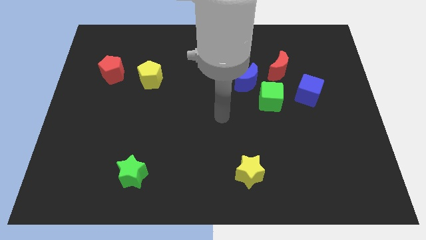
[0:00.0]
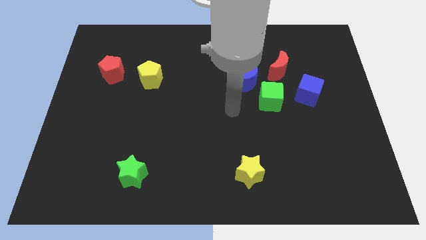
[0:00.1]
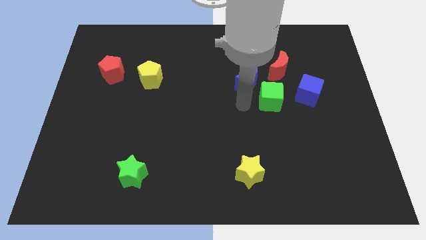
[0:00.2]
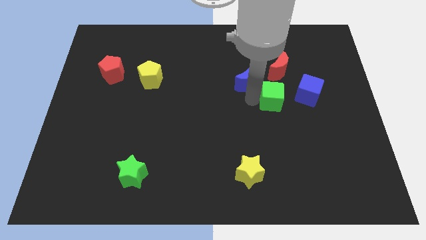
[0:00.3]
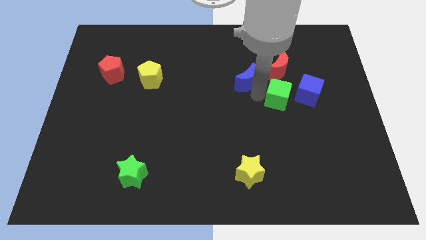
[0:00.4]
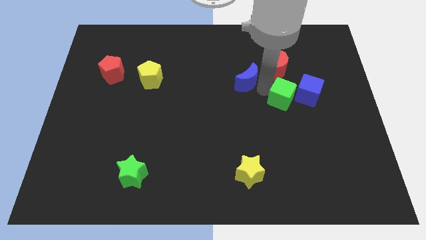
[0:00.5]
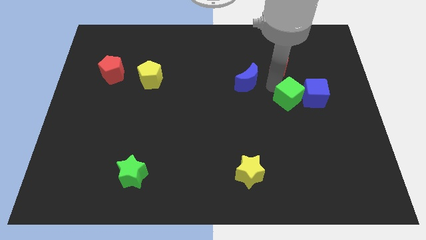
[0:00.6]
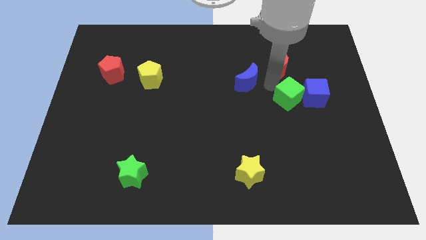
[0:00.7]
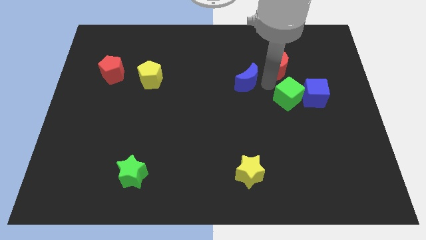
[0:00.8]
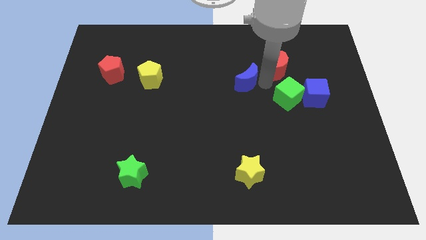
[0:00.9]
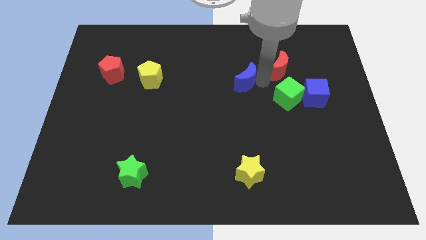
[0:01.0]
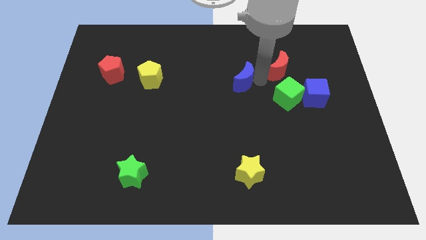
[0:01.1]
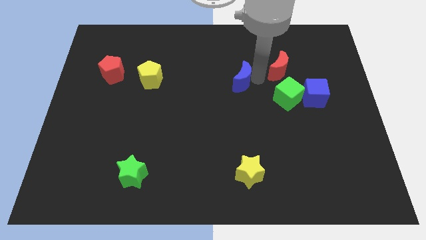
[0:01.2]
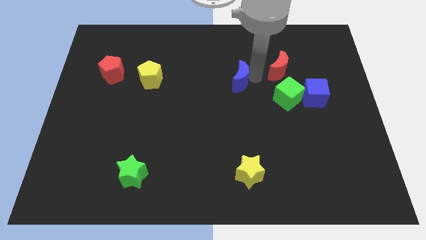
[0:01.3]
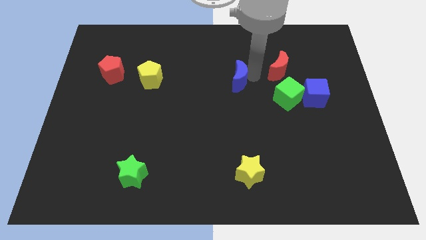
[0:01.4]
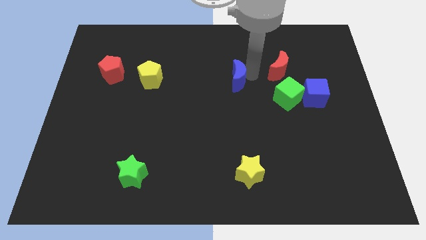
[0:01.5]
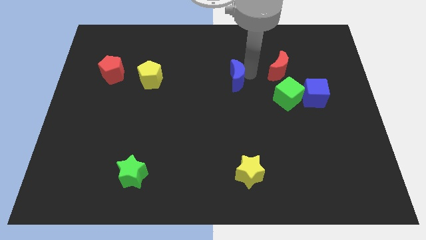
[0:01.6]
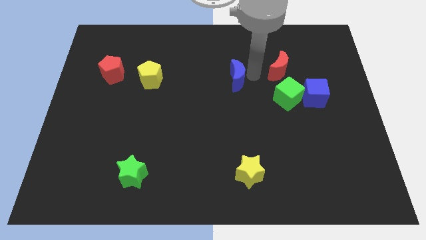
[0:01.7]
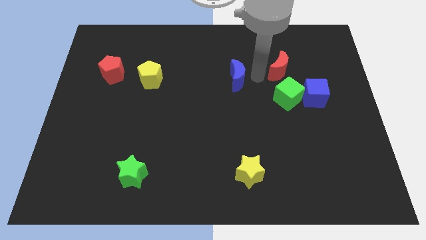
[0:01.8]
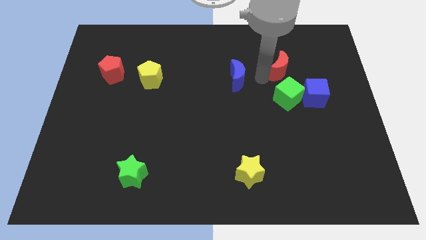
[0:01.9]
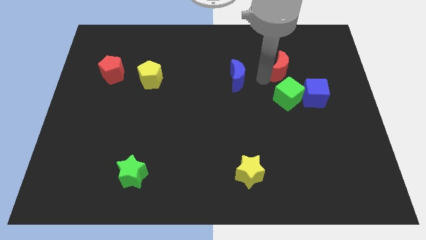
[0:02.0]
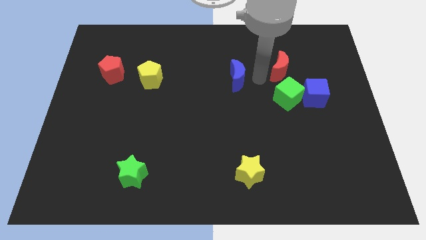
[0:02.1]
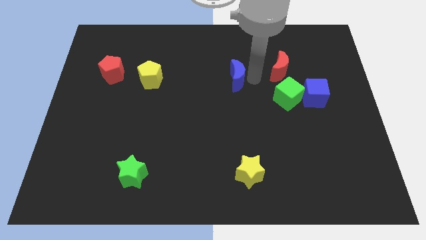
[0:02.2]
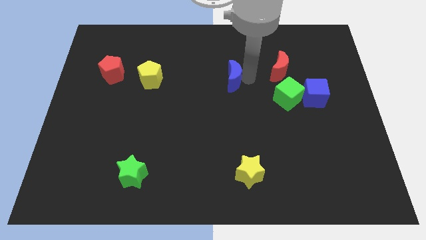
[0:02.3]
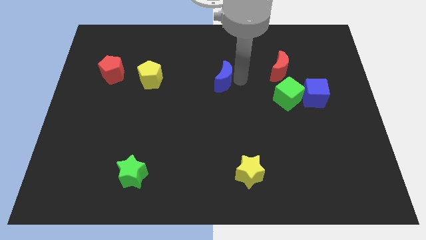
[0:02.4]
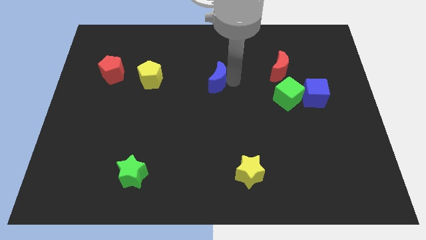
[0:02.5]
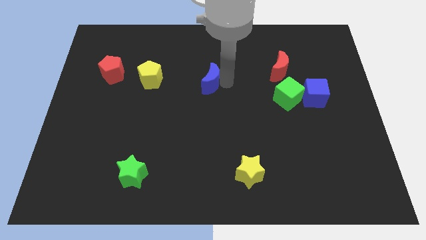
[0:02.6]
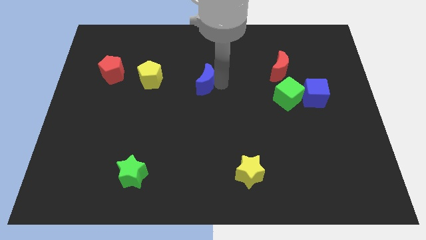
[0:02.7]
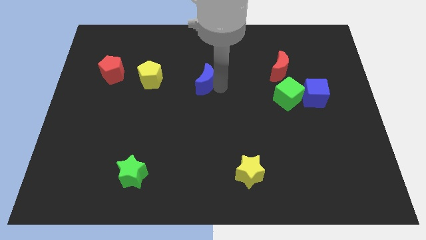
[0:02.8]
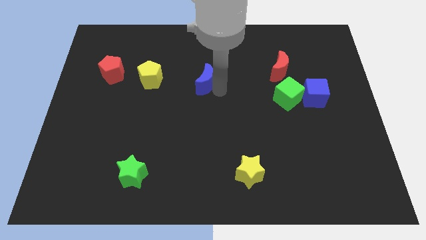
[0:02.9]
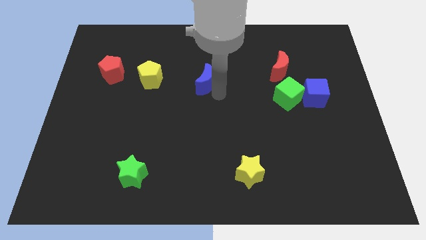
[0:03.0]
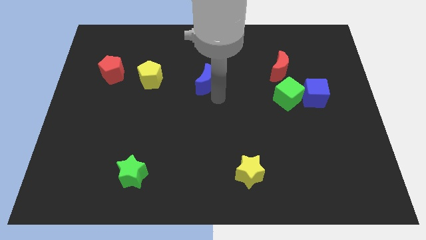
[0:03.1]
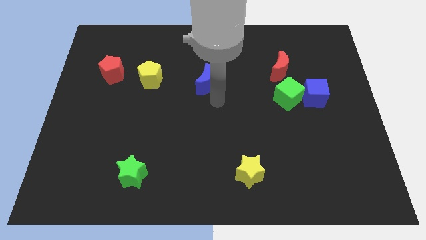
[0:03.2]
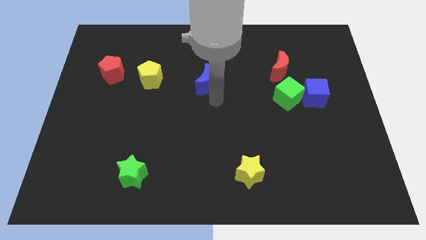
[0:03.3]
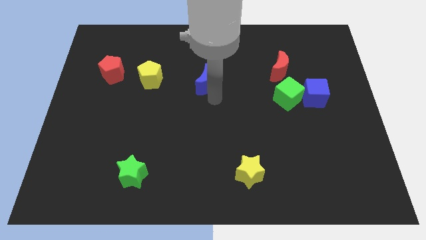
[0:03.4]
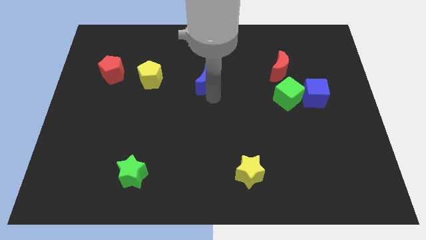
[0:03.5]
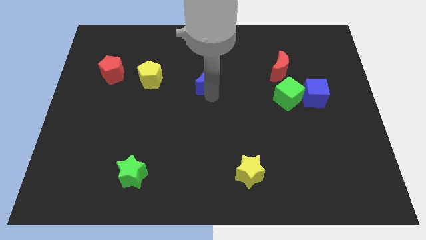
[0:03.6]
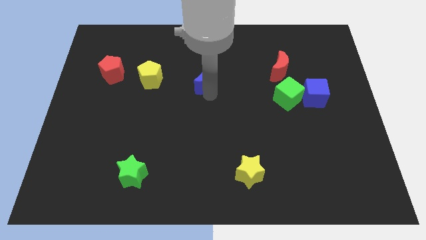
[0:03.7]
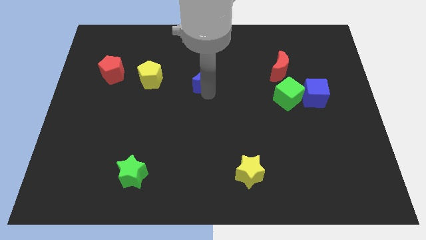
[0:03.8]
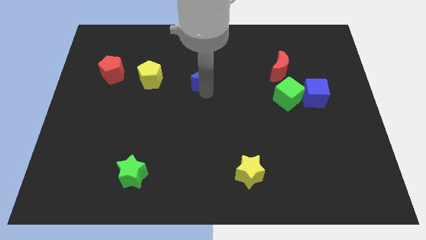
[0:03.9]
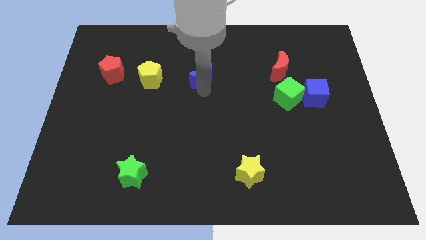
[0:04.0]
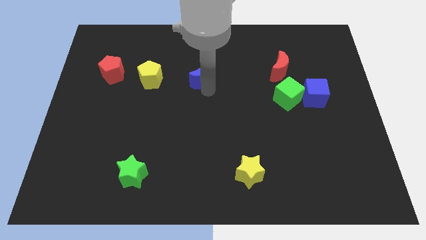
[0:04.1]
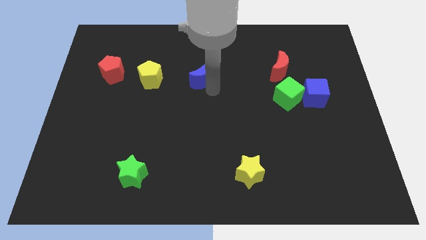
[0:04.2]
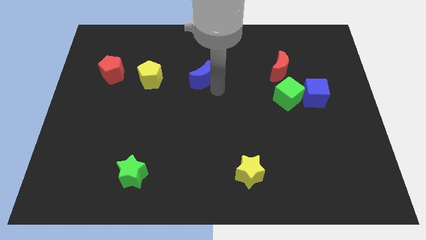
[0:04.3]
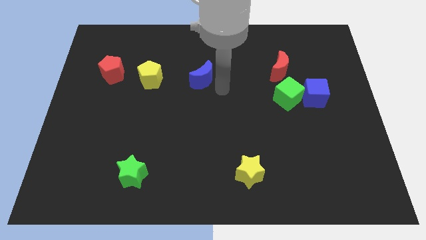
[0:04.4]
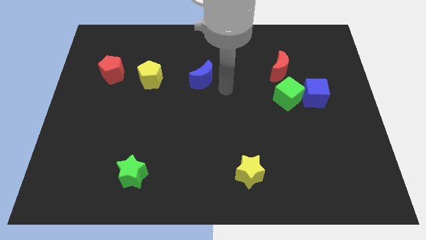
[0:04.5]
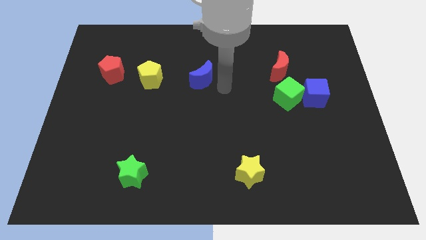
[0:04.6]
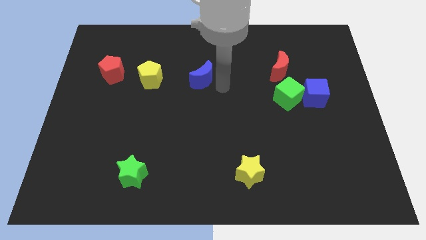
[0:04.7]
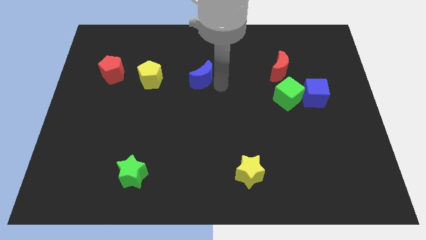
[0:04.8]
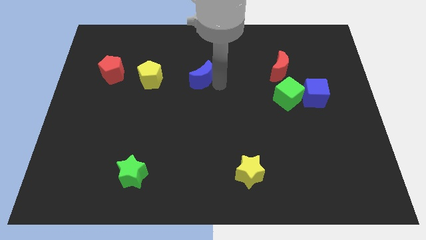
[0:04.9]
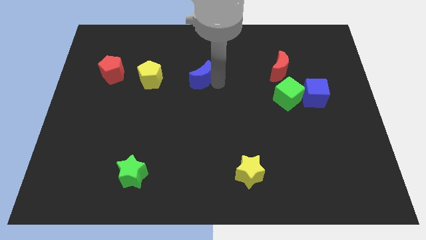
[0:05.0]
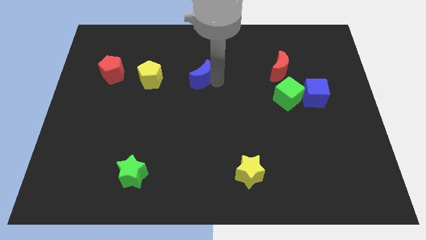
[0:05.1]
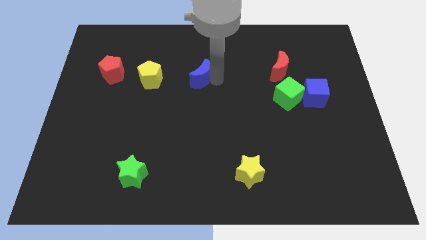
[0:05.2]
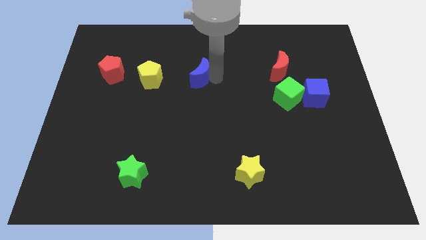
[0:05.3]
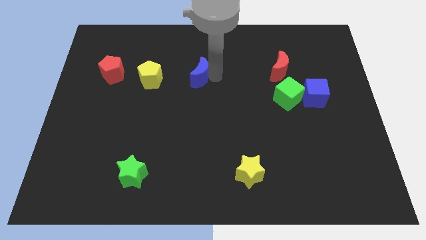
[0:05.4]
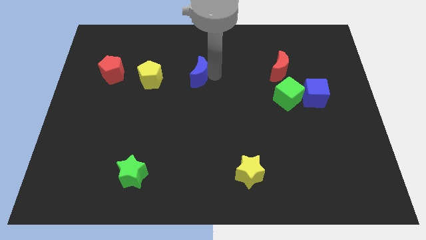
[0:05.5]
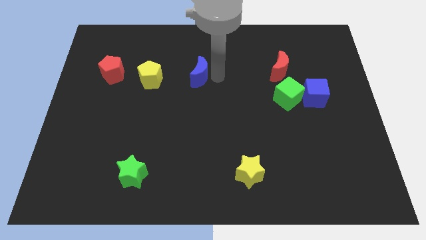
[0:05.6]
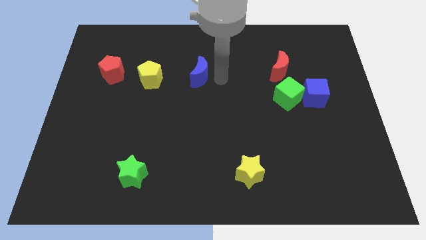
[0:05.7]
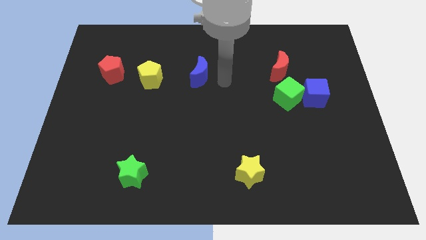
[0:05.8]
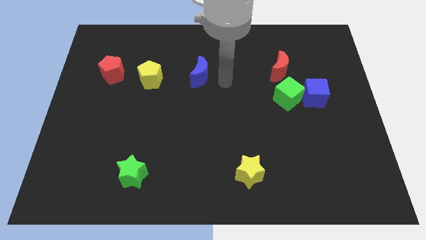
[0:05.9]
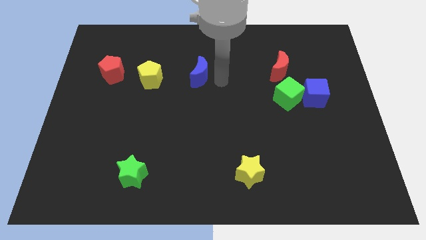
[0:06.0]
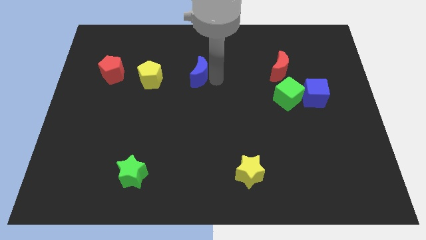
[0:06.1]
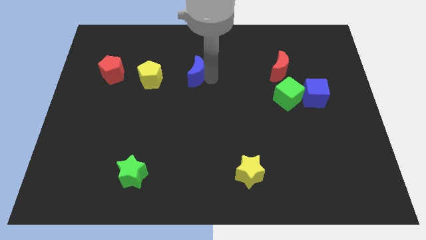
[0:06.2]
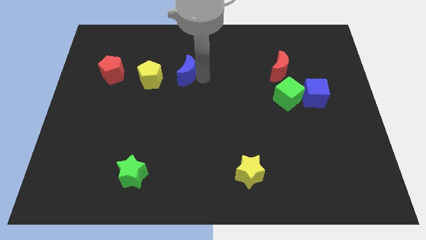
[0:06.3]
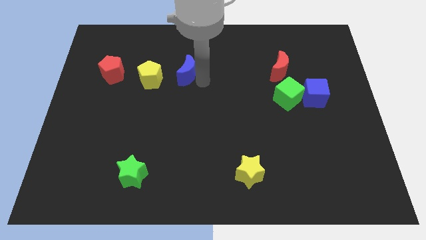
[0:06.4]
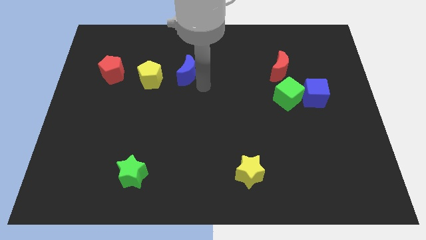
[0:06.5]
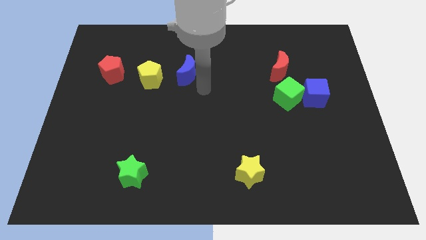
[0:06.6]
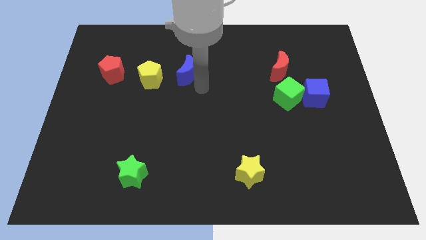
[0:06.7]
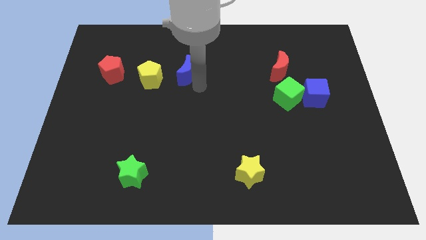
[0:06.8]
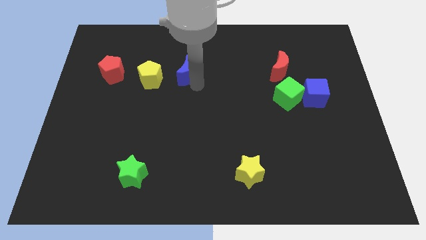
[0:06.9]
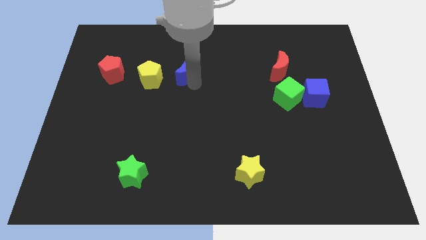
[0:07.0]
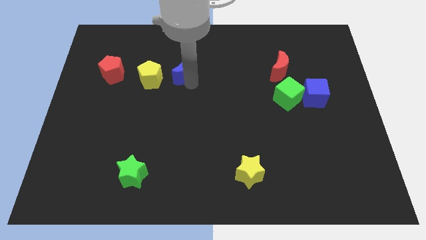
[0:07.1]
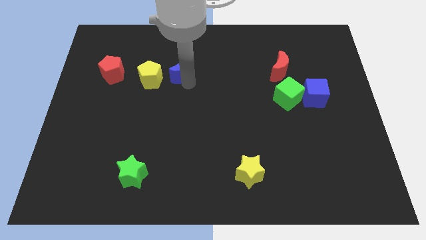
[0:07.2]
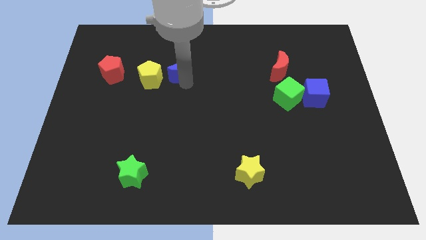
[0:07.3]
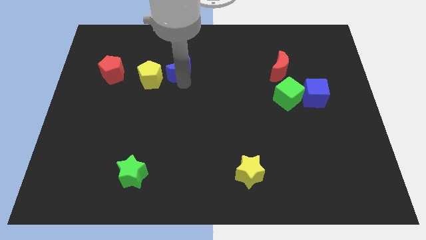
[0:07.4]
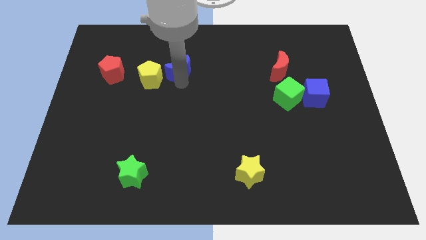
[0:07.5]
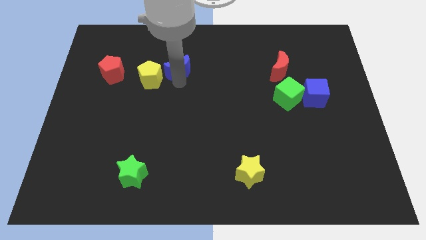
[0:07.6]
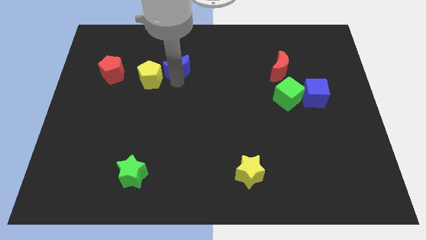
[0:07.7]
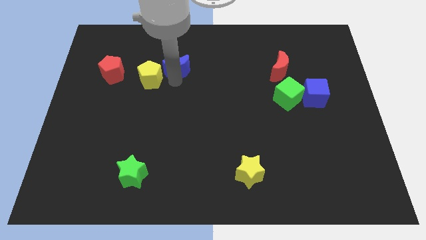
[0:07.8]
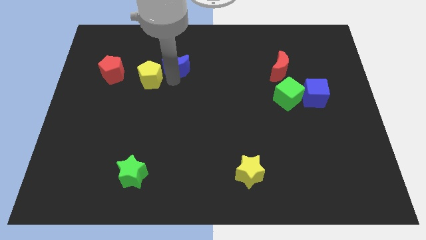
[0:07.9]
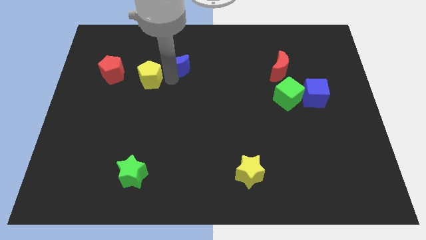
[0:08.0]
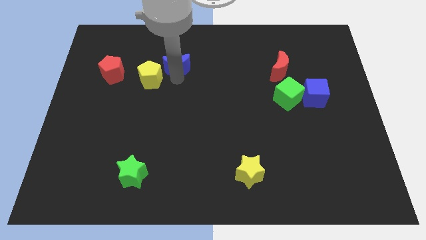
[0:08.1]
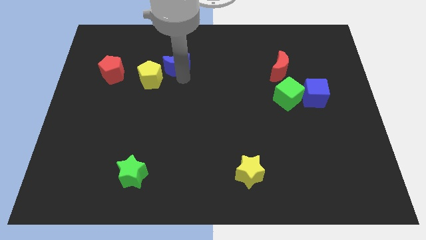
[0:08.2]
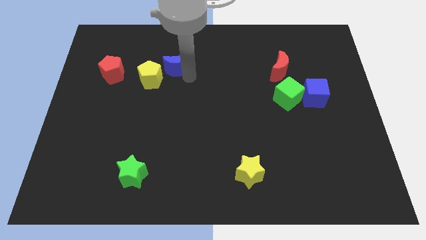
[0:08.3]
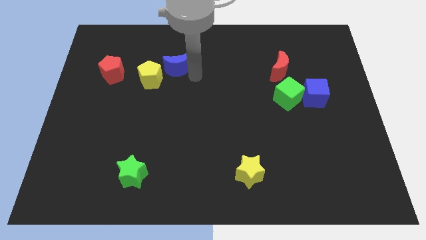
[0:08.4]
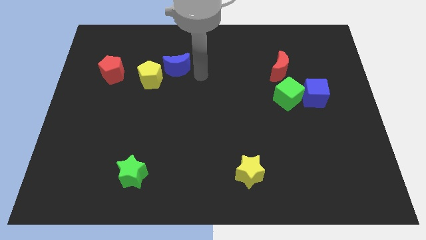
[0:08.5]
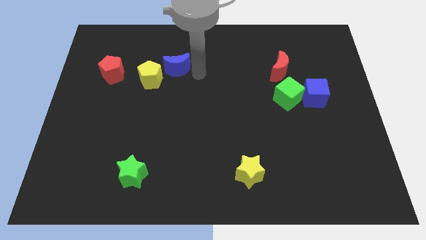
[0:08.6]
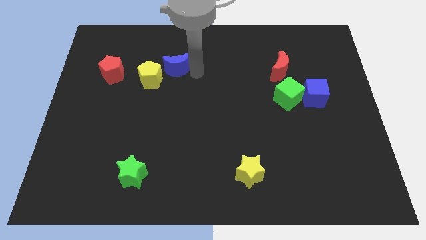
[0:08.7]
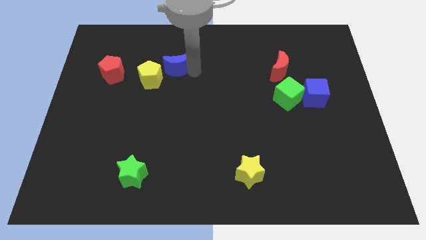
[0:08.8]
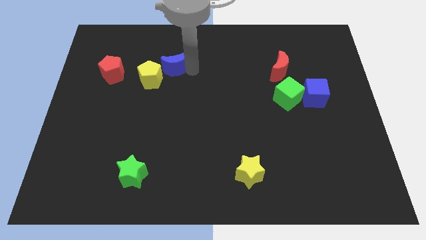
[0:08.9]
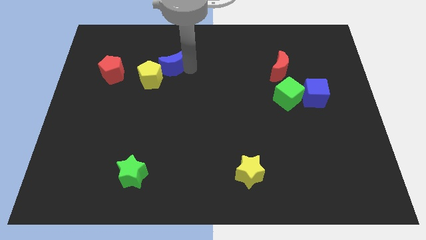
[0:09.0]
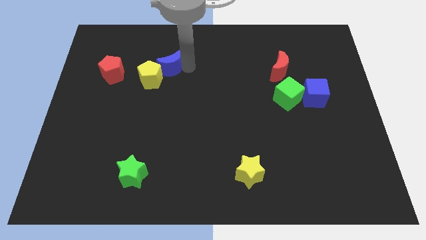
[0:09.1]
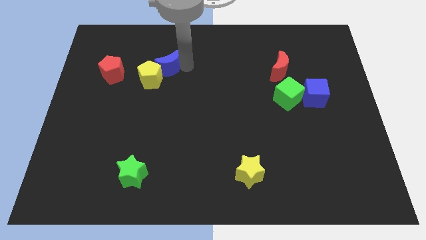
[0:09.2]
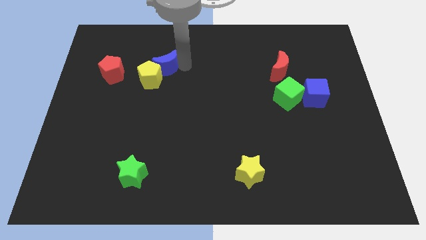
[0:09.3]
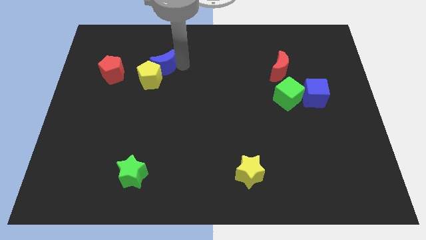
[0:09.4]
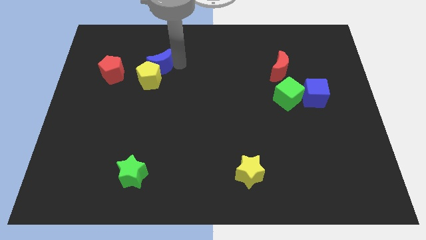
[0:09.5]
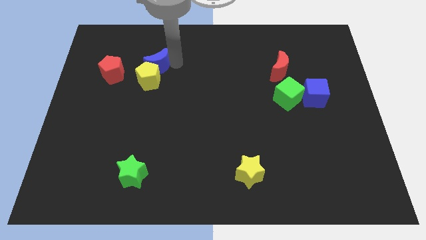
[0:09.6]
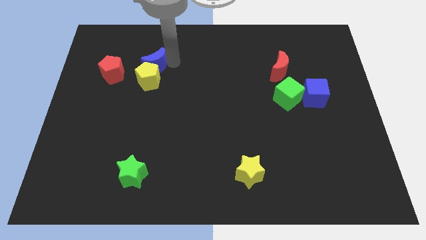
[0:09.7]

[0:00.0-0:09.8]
slide the blue moon to the top left side of the yellow pentagon
